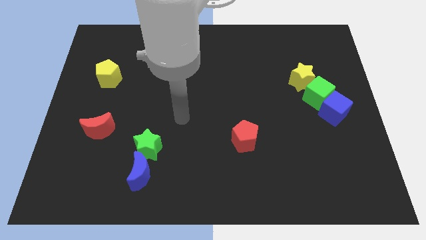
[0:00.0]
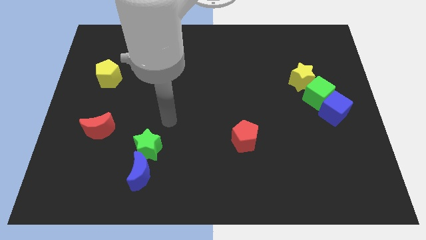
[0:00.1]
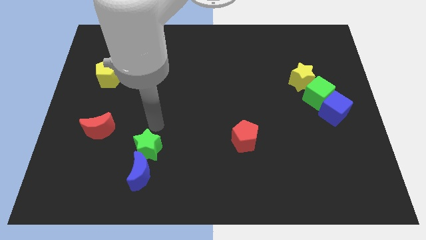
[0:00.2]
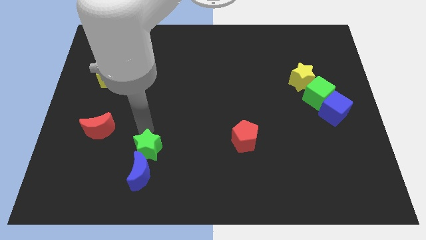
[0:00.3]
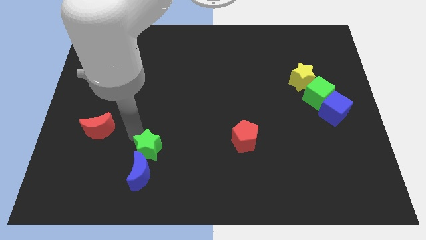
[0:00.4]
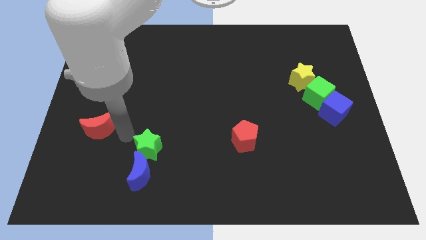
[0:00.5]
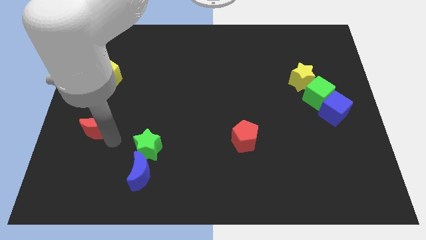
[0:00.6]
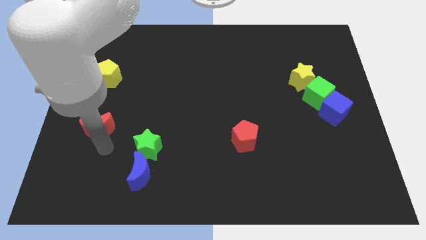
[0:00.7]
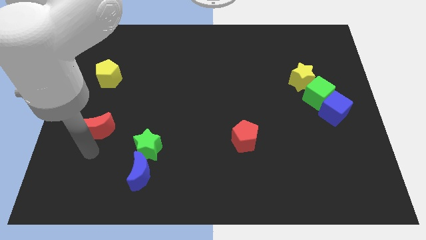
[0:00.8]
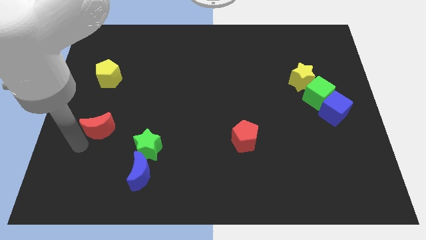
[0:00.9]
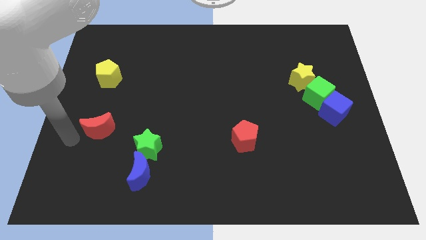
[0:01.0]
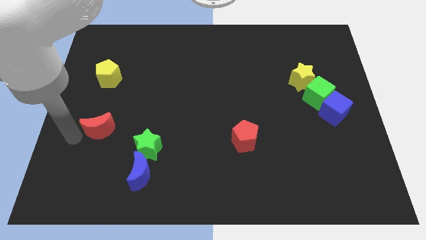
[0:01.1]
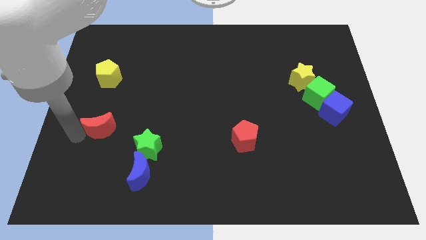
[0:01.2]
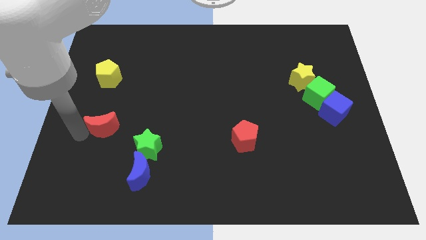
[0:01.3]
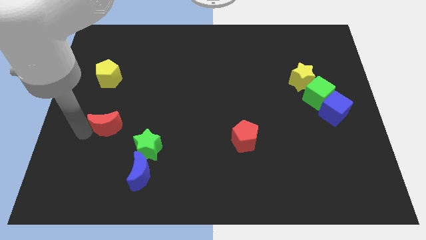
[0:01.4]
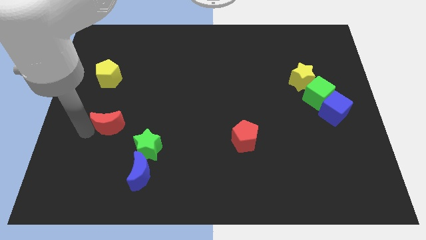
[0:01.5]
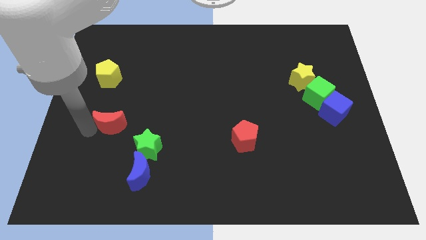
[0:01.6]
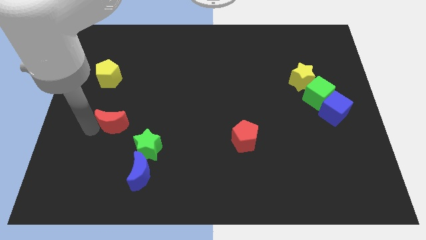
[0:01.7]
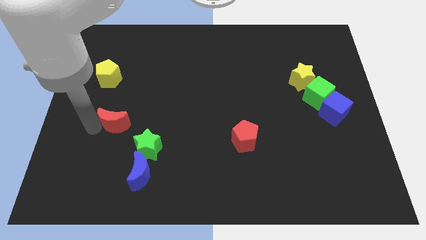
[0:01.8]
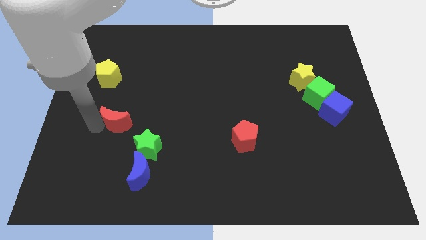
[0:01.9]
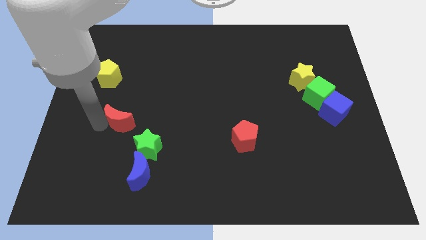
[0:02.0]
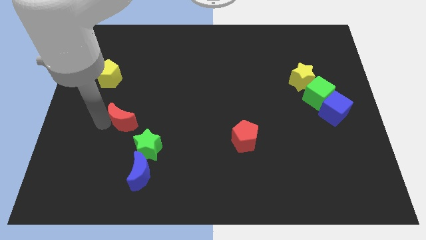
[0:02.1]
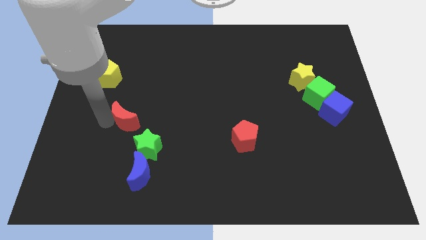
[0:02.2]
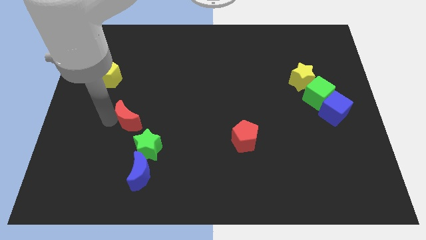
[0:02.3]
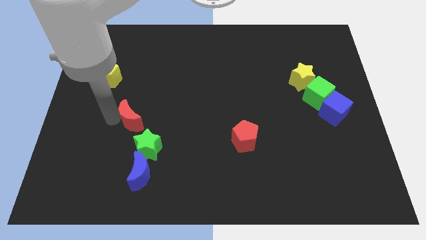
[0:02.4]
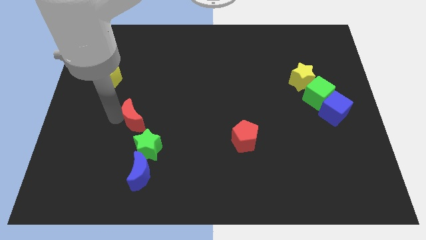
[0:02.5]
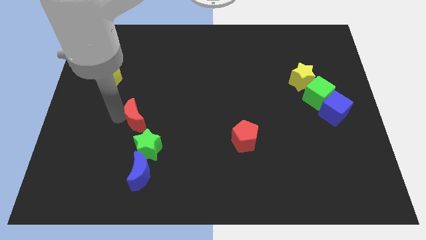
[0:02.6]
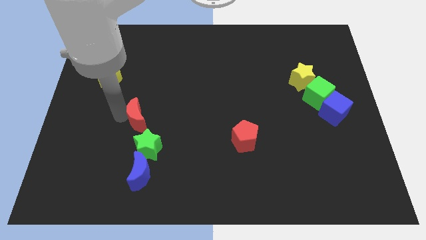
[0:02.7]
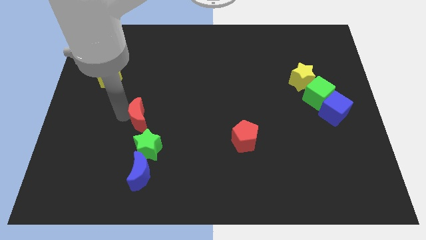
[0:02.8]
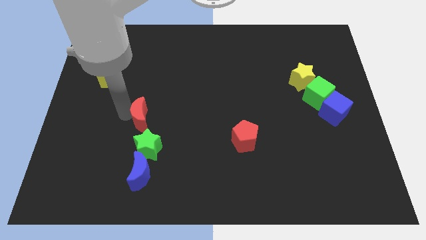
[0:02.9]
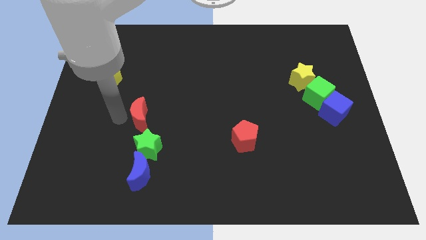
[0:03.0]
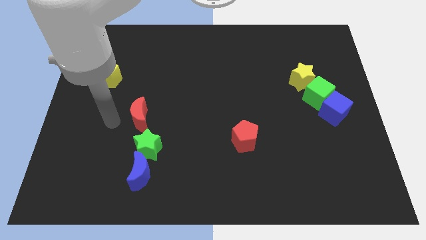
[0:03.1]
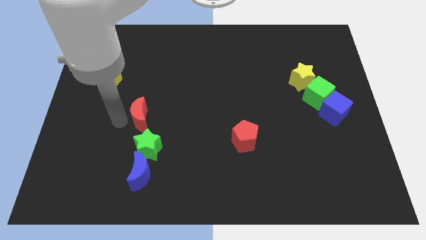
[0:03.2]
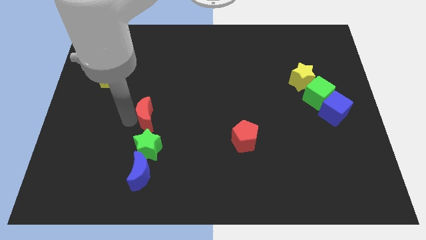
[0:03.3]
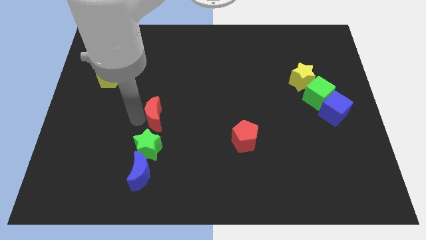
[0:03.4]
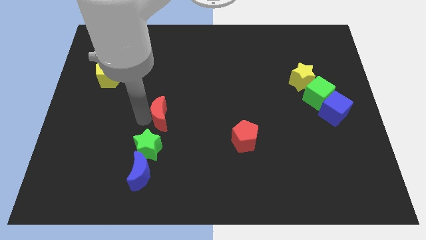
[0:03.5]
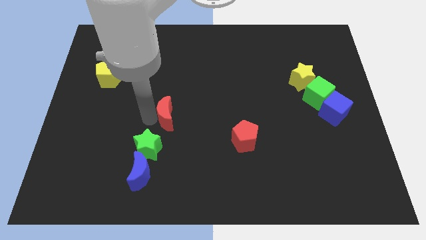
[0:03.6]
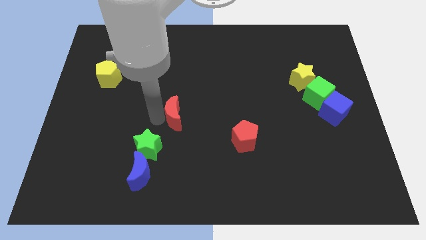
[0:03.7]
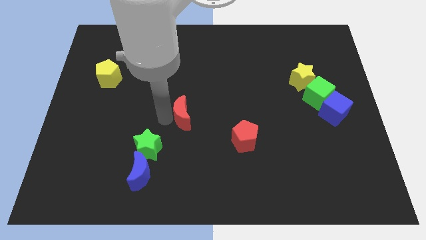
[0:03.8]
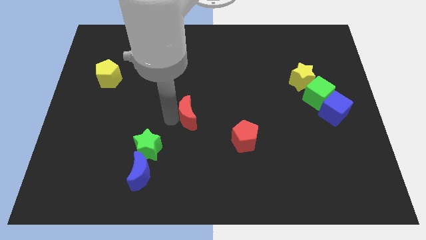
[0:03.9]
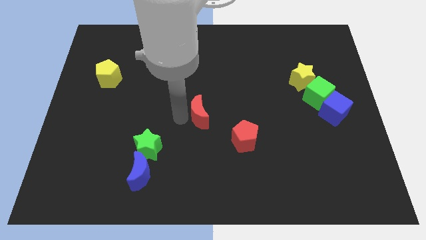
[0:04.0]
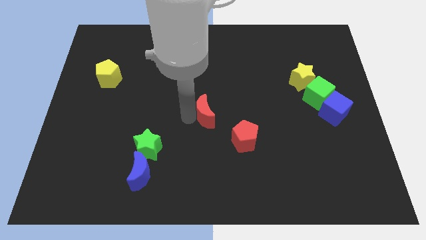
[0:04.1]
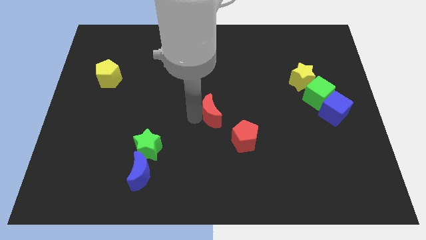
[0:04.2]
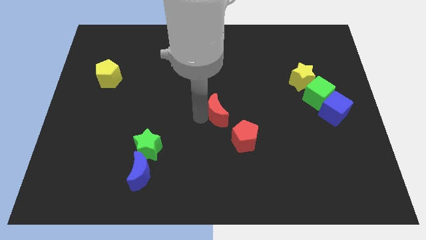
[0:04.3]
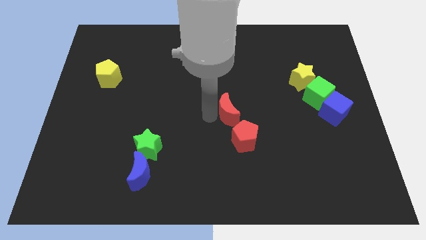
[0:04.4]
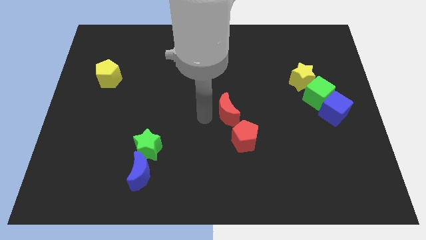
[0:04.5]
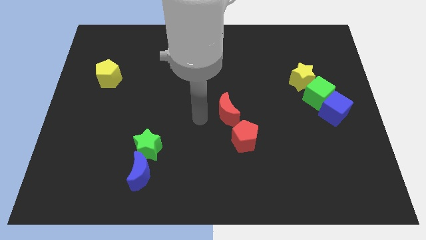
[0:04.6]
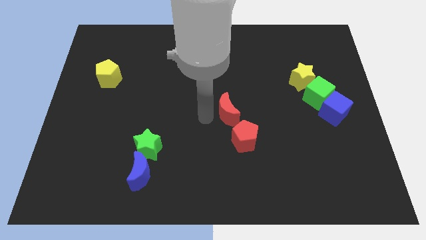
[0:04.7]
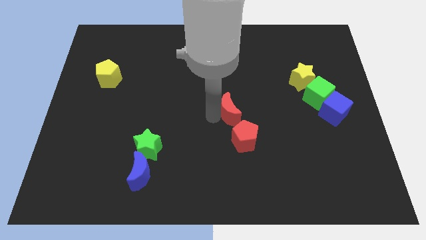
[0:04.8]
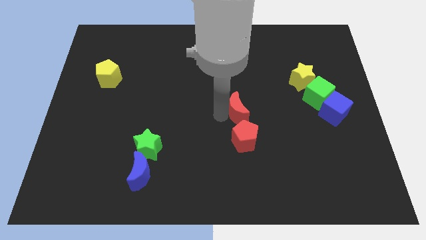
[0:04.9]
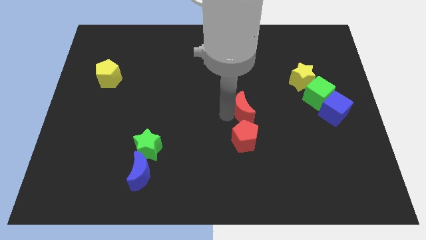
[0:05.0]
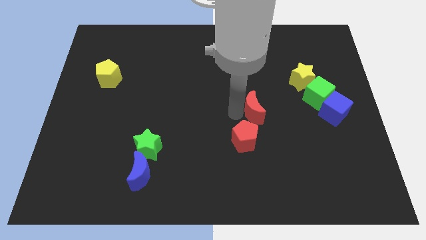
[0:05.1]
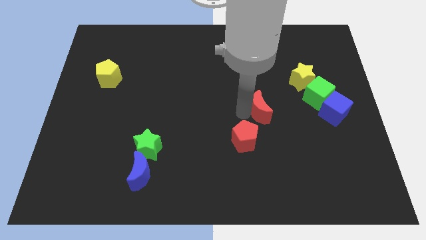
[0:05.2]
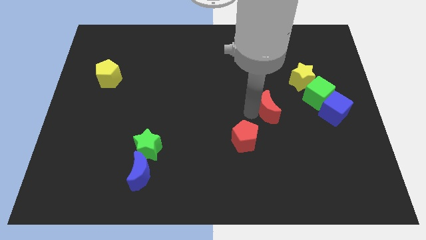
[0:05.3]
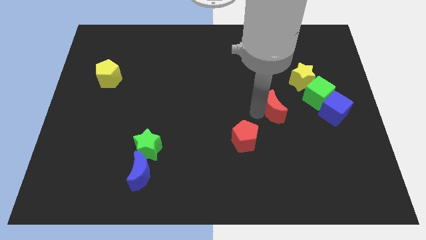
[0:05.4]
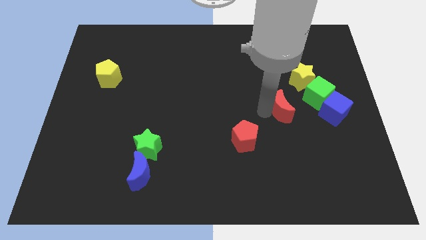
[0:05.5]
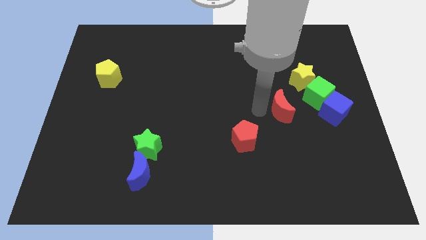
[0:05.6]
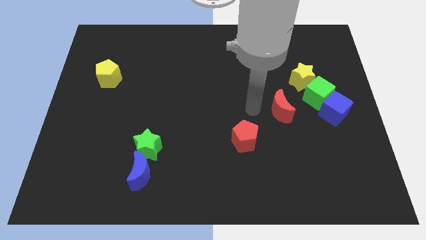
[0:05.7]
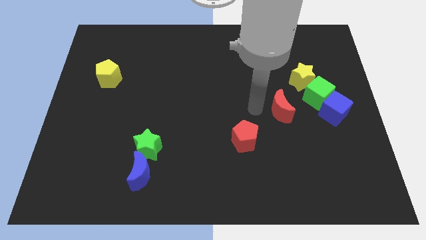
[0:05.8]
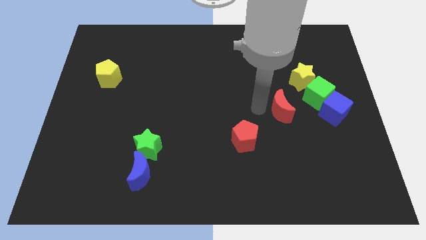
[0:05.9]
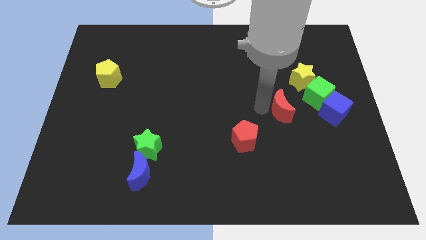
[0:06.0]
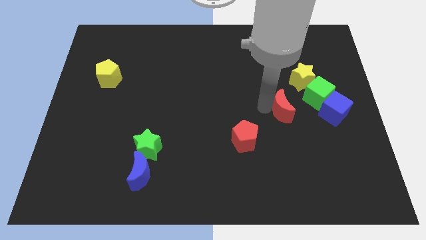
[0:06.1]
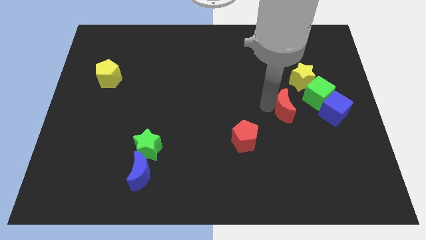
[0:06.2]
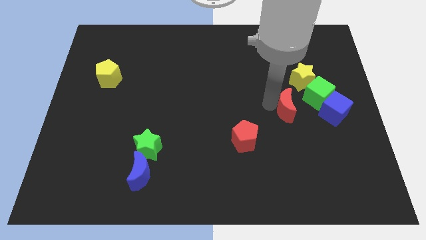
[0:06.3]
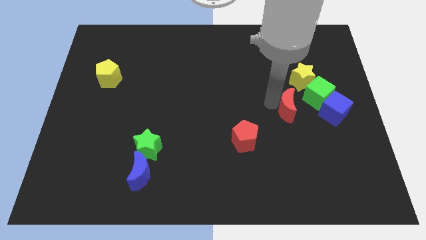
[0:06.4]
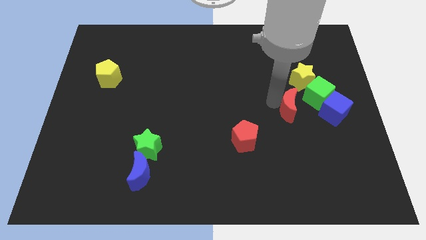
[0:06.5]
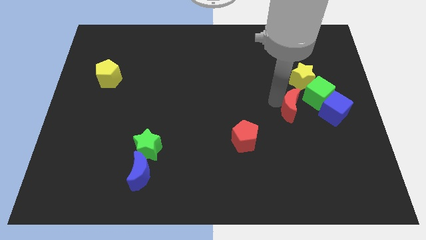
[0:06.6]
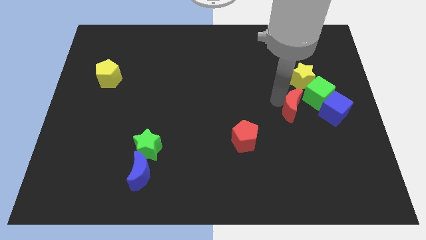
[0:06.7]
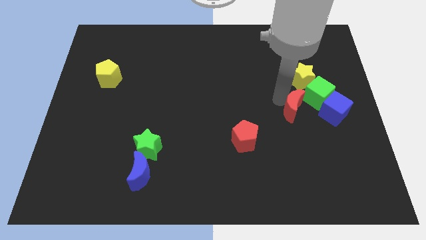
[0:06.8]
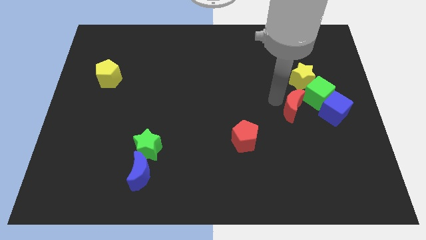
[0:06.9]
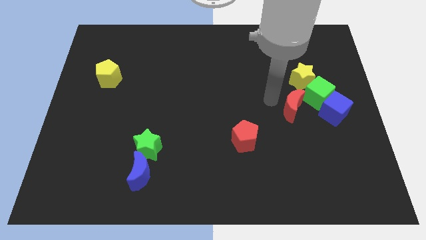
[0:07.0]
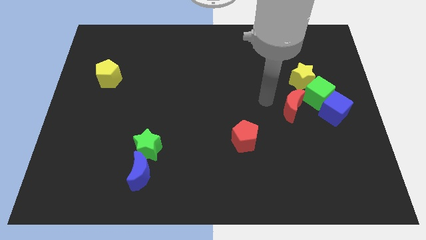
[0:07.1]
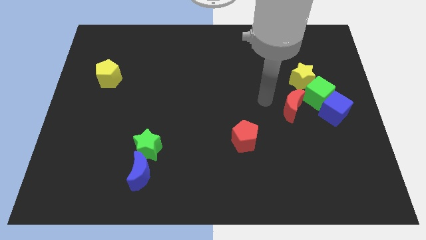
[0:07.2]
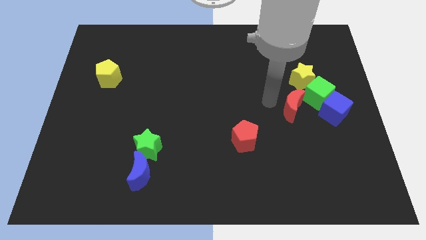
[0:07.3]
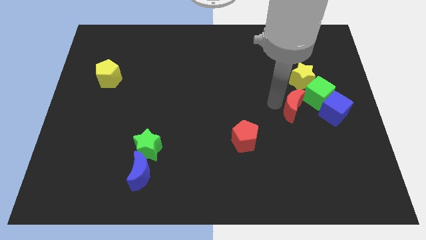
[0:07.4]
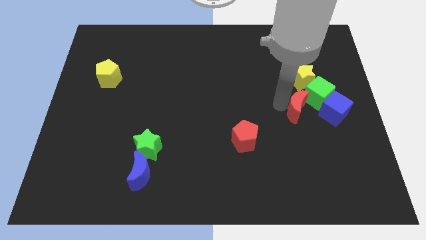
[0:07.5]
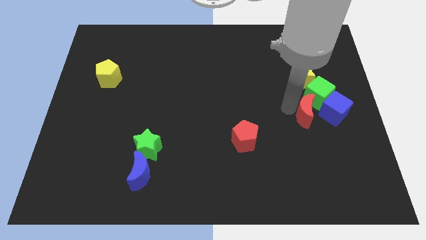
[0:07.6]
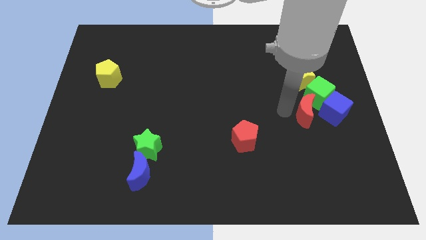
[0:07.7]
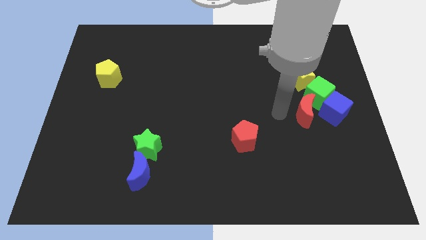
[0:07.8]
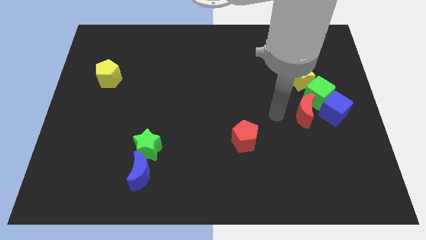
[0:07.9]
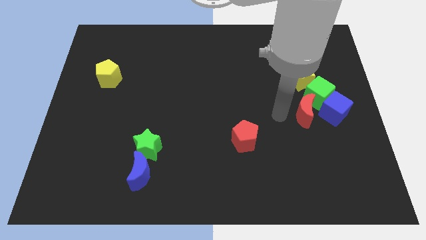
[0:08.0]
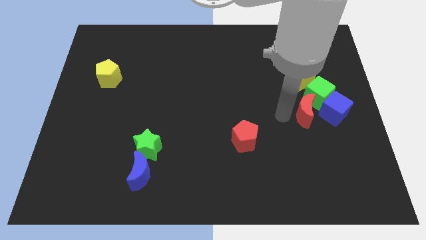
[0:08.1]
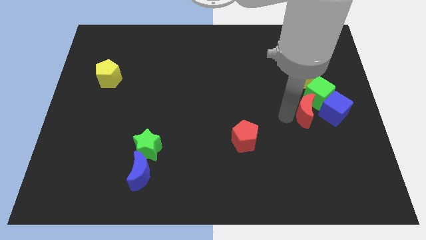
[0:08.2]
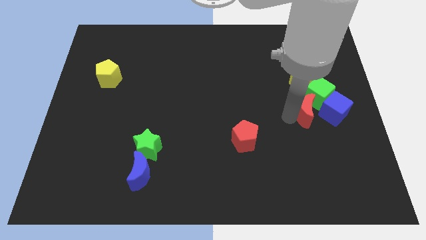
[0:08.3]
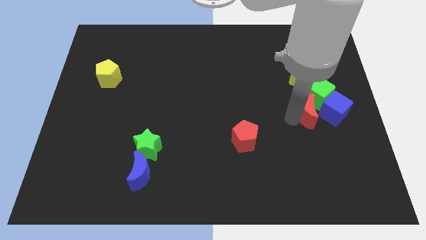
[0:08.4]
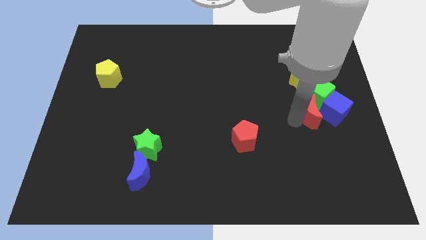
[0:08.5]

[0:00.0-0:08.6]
move the red moon next to the blue cube
